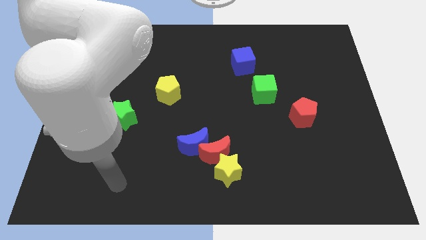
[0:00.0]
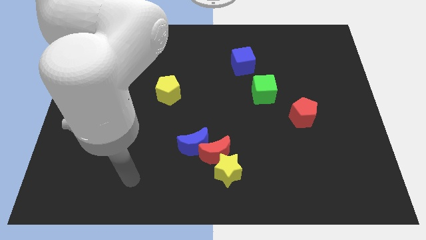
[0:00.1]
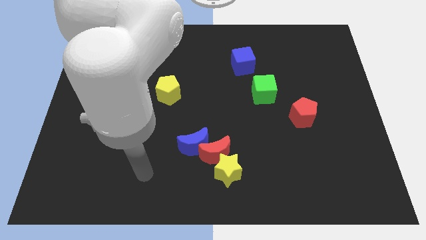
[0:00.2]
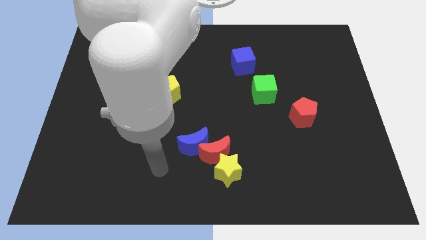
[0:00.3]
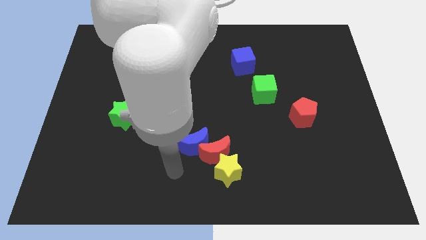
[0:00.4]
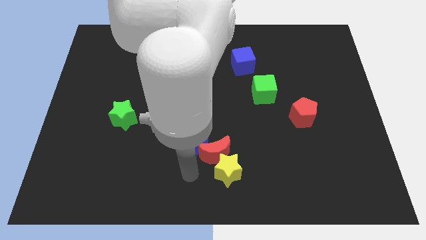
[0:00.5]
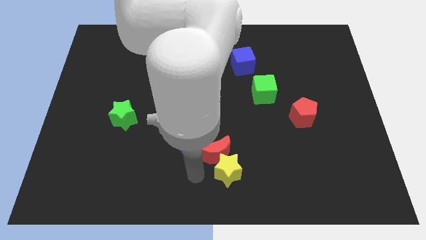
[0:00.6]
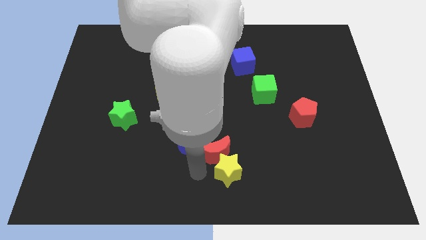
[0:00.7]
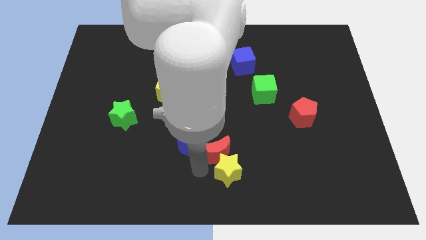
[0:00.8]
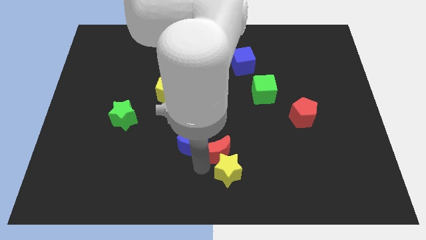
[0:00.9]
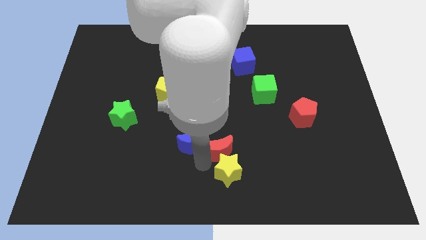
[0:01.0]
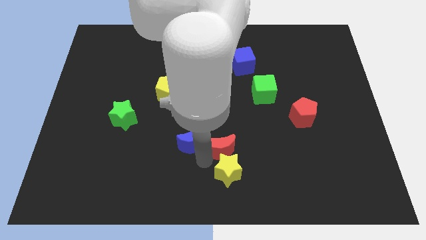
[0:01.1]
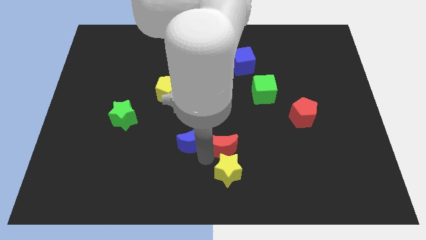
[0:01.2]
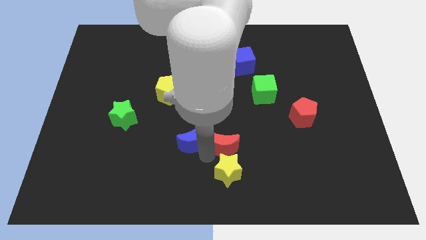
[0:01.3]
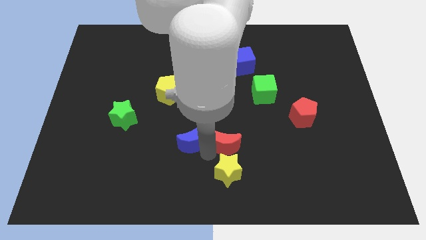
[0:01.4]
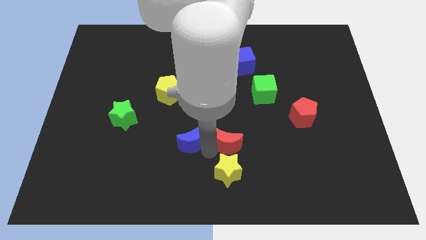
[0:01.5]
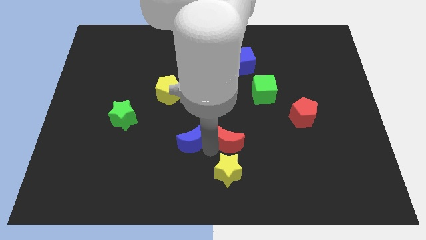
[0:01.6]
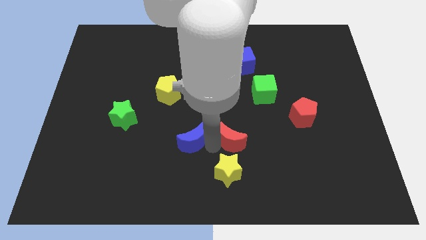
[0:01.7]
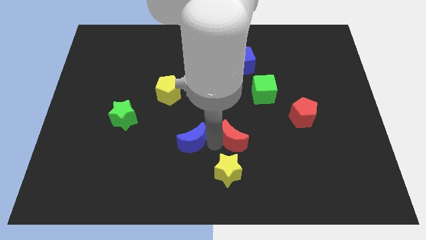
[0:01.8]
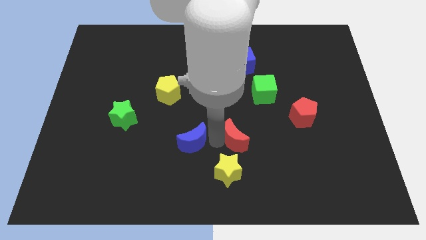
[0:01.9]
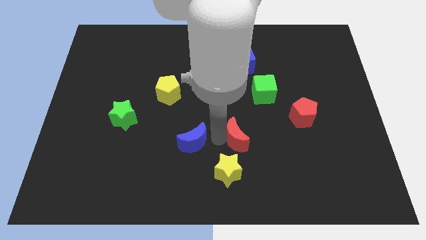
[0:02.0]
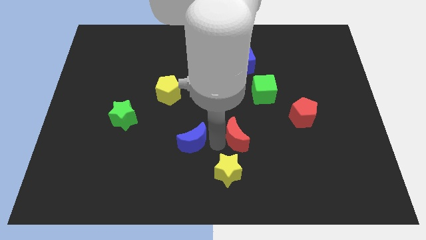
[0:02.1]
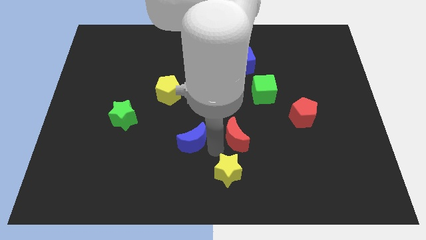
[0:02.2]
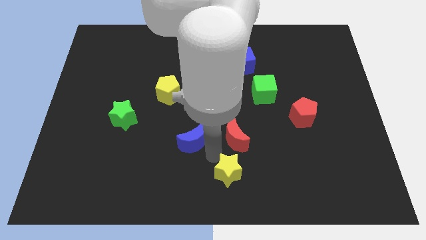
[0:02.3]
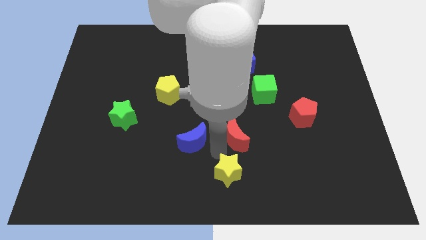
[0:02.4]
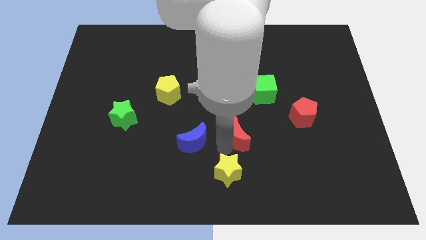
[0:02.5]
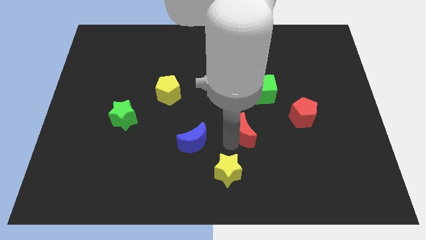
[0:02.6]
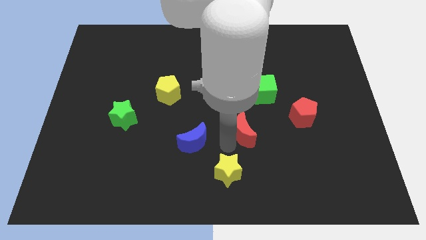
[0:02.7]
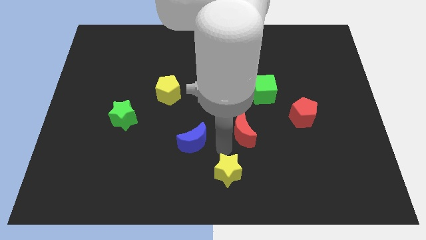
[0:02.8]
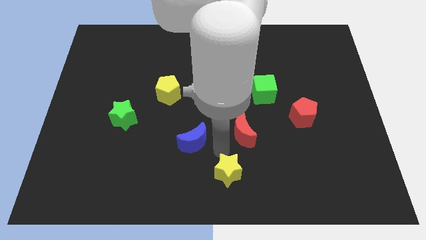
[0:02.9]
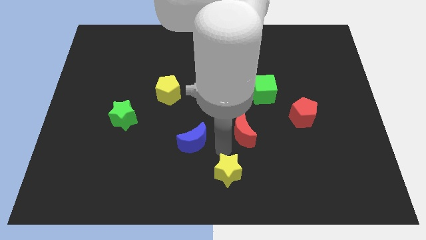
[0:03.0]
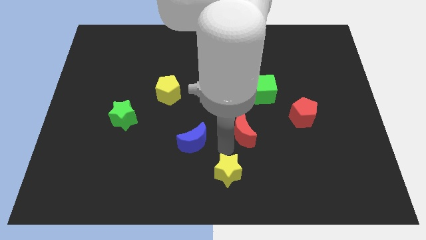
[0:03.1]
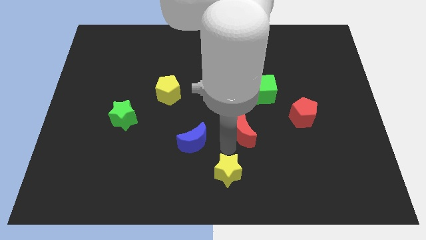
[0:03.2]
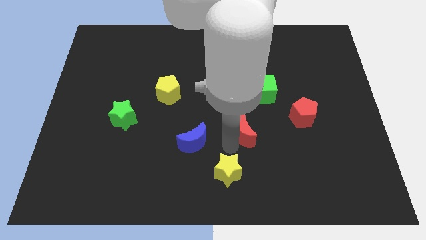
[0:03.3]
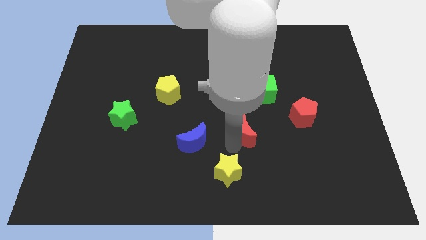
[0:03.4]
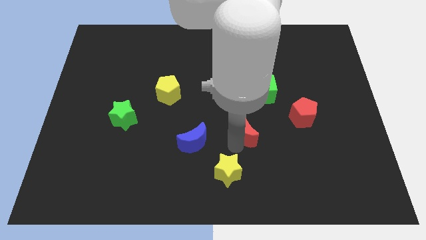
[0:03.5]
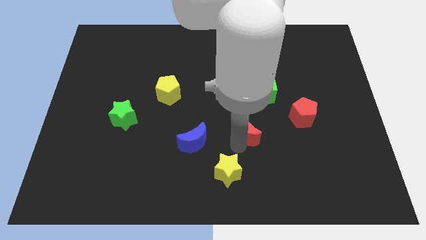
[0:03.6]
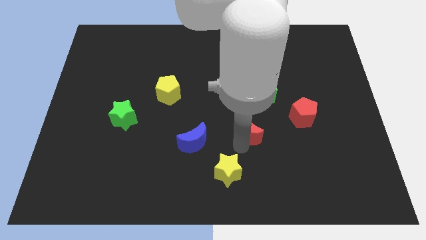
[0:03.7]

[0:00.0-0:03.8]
move the red moon away from the yellow star and blue moon

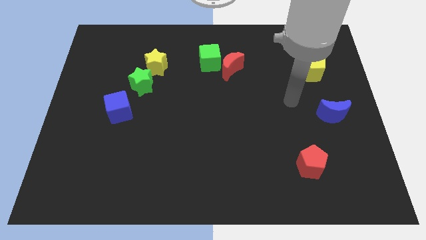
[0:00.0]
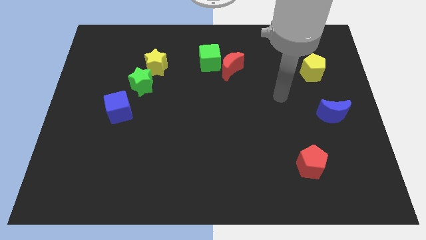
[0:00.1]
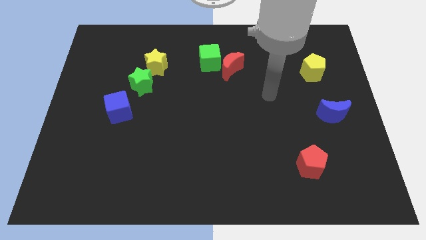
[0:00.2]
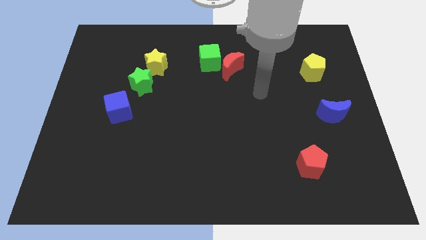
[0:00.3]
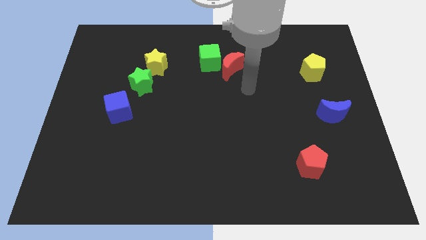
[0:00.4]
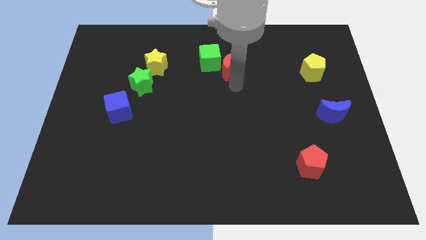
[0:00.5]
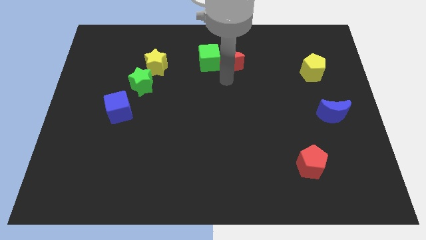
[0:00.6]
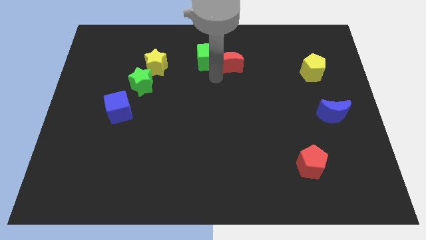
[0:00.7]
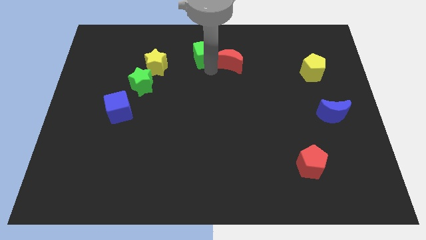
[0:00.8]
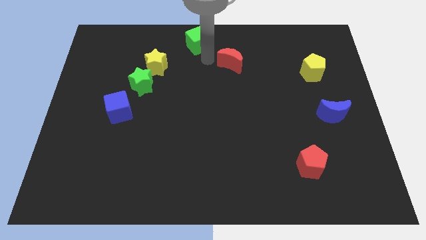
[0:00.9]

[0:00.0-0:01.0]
pull the red moon apart from the green cube

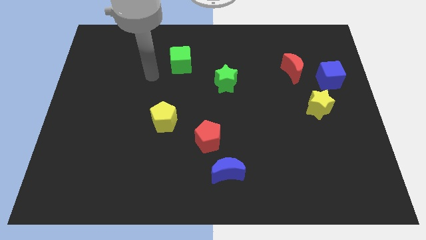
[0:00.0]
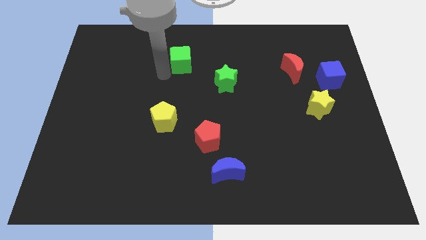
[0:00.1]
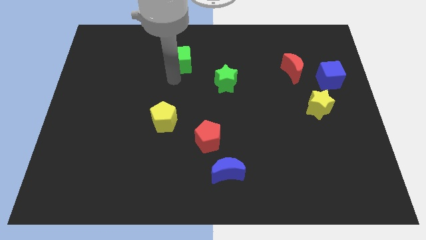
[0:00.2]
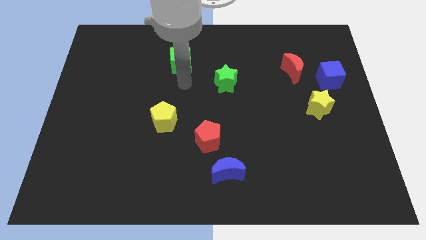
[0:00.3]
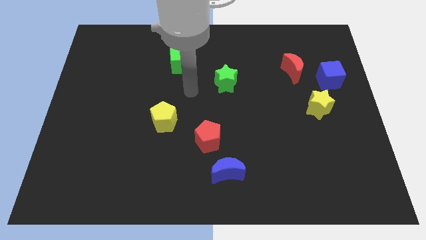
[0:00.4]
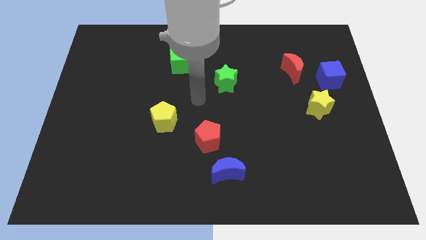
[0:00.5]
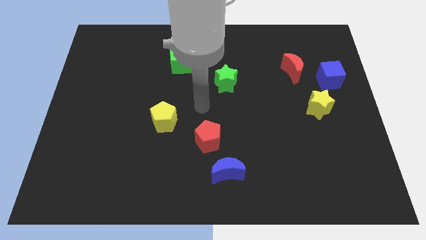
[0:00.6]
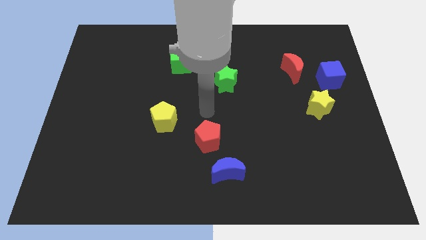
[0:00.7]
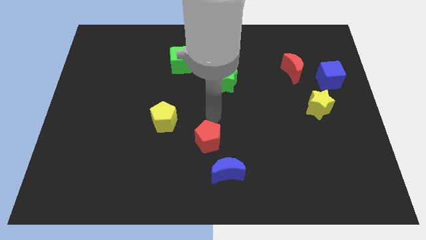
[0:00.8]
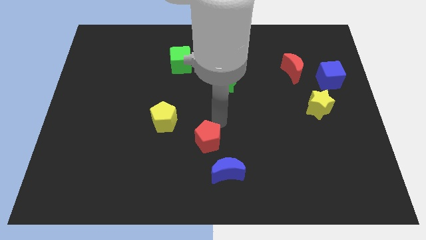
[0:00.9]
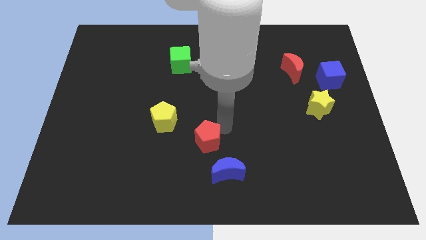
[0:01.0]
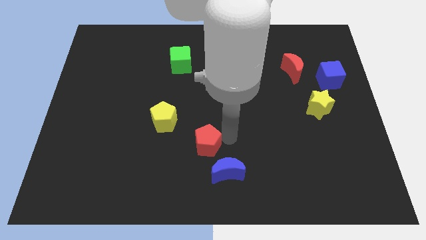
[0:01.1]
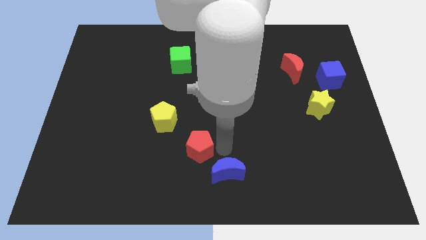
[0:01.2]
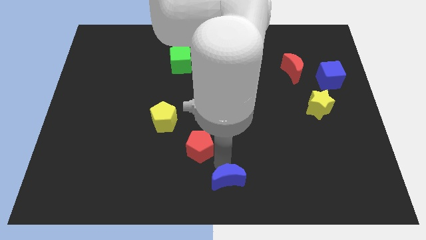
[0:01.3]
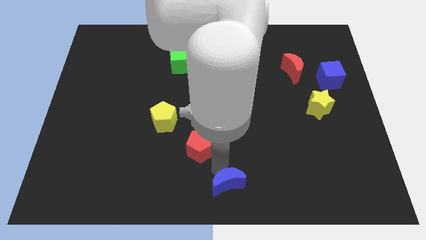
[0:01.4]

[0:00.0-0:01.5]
pull the red pentagon apart from the blue moon

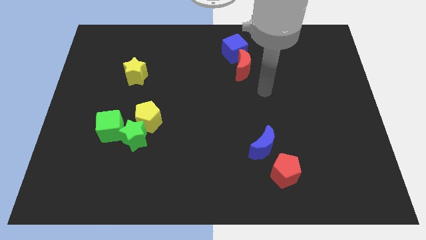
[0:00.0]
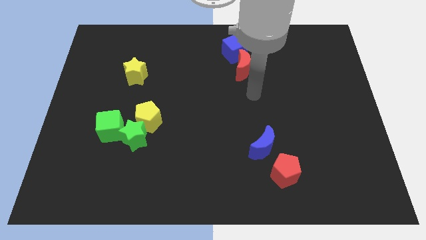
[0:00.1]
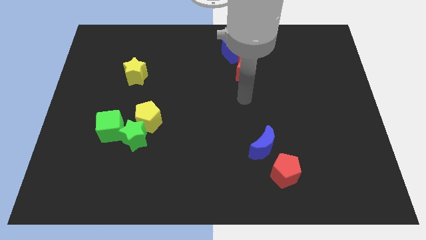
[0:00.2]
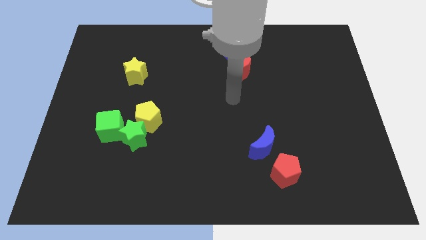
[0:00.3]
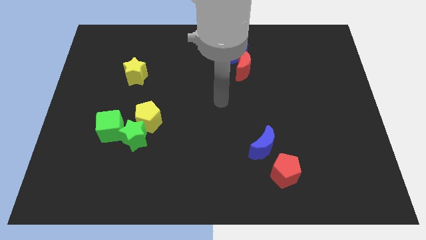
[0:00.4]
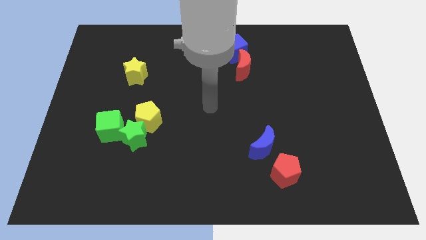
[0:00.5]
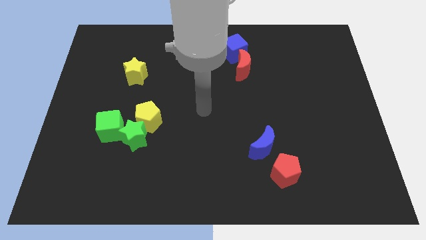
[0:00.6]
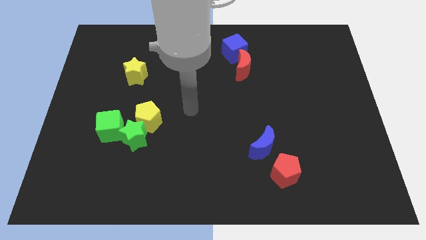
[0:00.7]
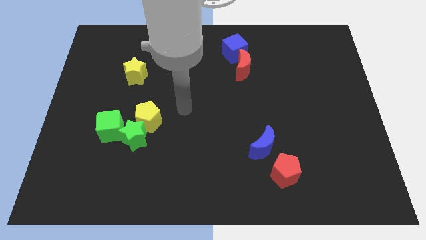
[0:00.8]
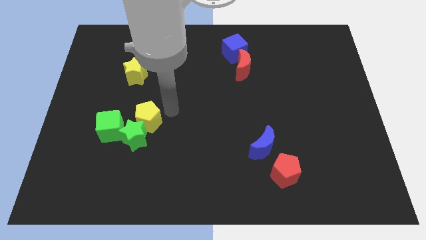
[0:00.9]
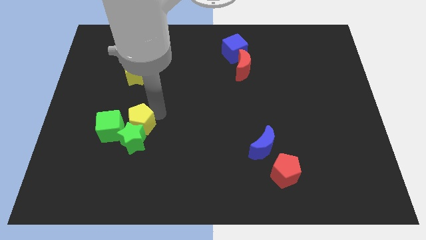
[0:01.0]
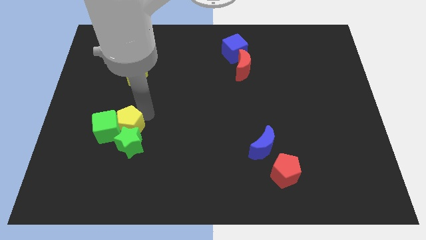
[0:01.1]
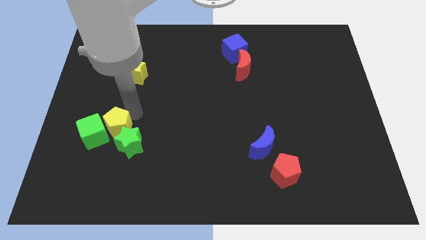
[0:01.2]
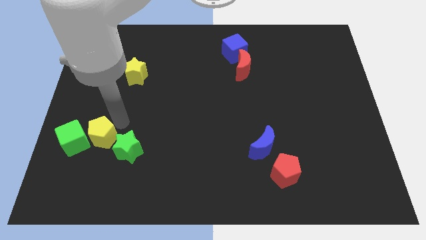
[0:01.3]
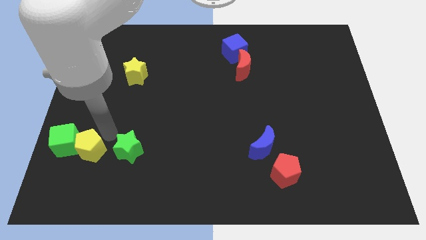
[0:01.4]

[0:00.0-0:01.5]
separate the green star from the yellow pentagon and green cube

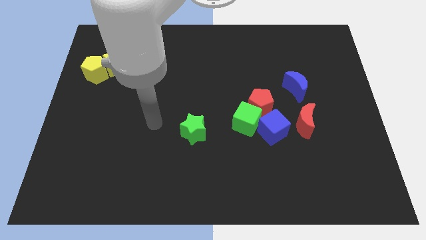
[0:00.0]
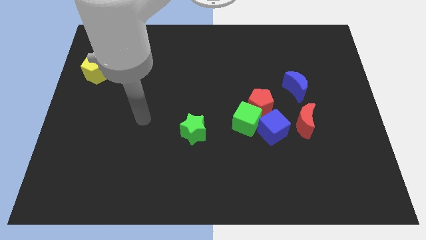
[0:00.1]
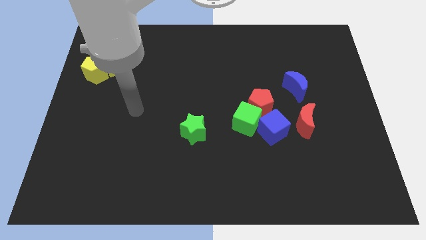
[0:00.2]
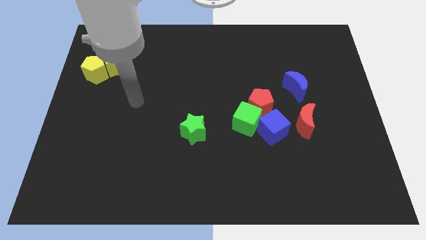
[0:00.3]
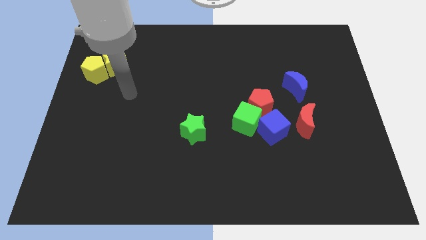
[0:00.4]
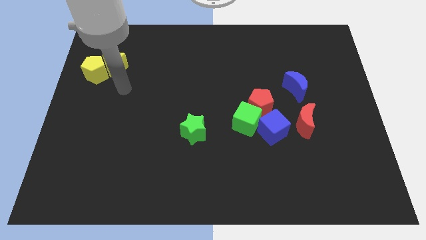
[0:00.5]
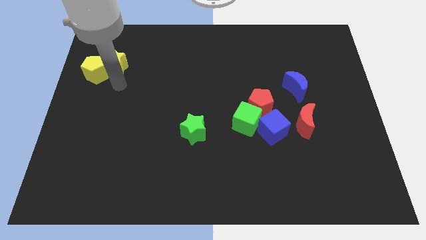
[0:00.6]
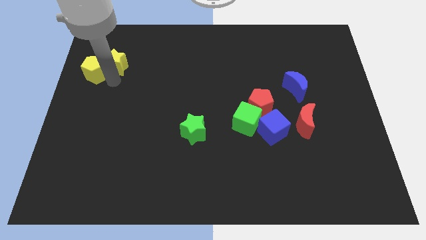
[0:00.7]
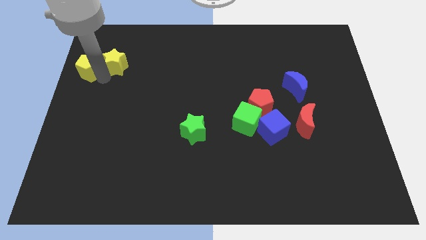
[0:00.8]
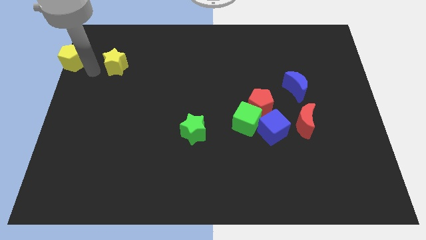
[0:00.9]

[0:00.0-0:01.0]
pull the yellow star apart from the yellow pentagon

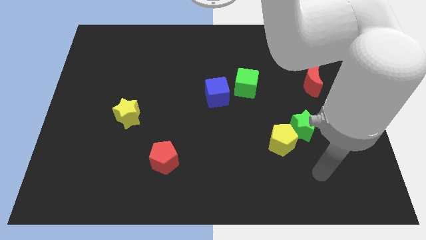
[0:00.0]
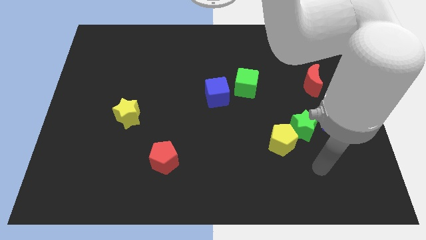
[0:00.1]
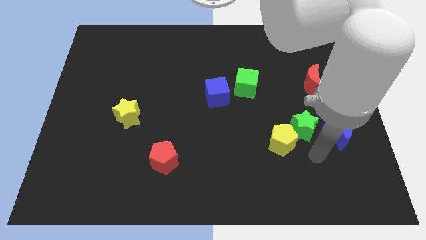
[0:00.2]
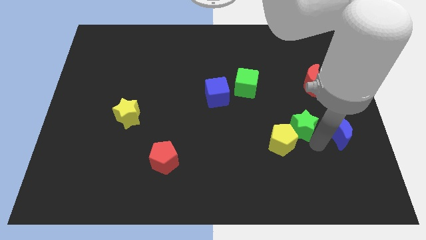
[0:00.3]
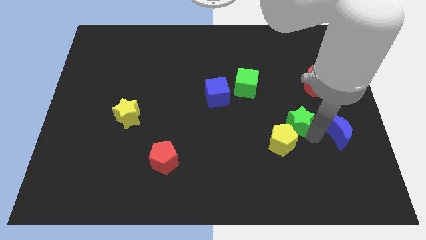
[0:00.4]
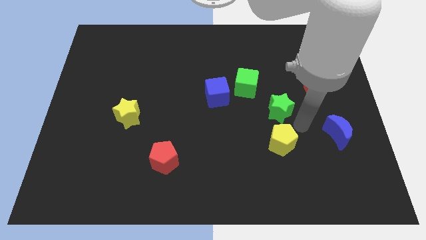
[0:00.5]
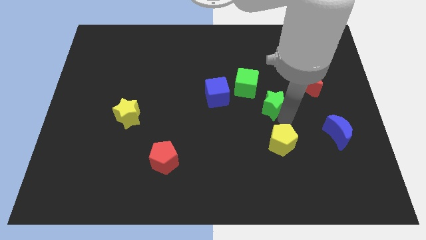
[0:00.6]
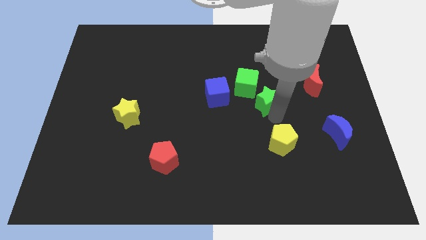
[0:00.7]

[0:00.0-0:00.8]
move the yellow pentagon away from the green star
